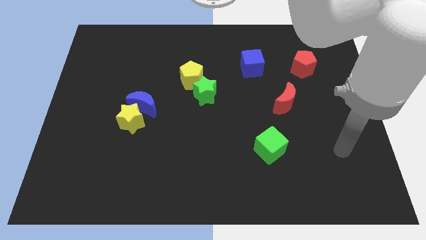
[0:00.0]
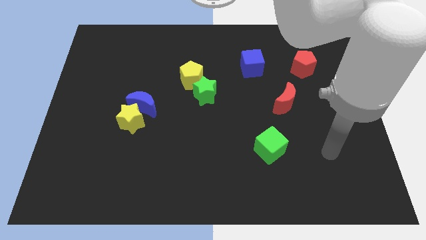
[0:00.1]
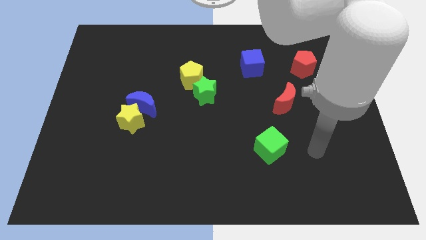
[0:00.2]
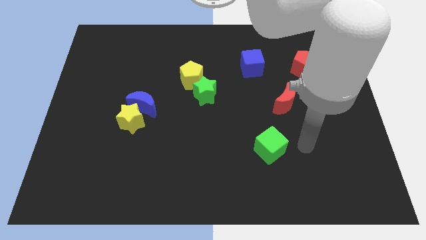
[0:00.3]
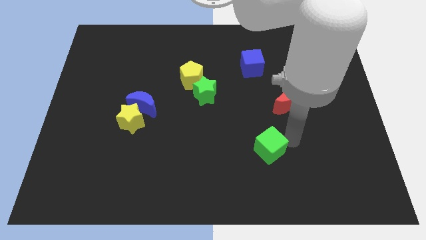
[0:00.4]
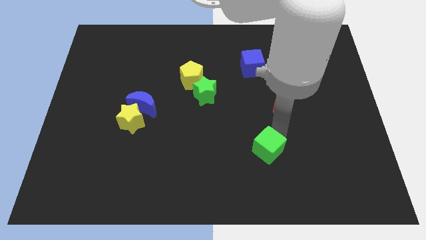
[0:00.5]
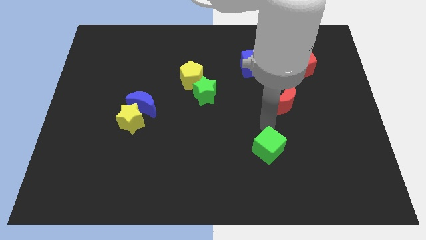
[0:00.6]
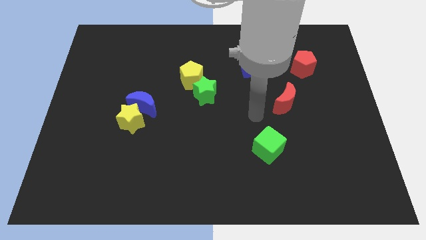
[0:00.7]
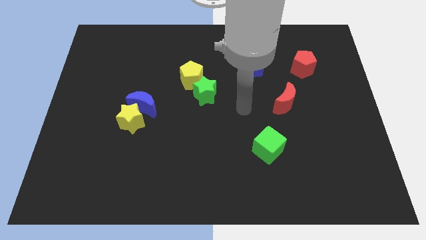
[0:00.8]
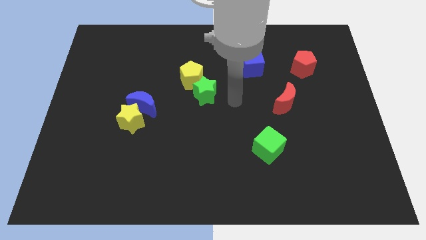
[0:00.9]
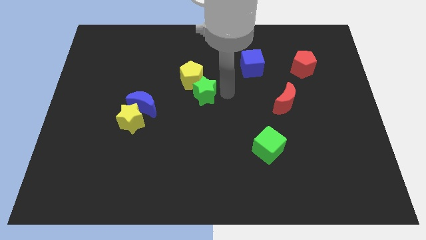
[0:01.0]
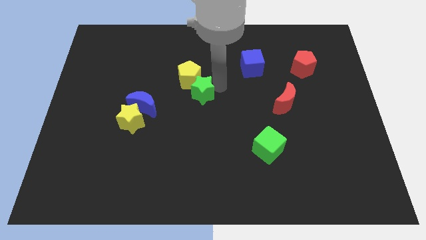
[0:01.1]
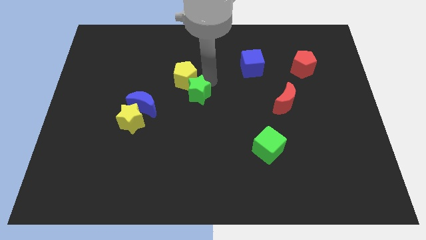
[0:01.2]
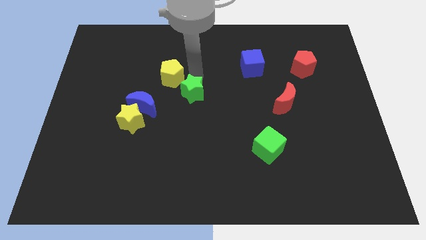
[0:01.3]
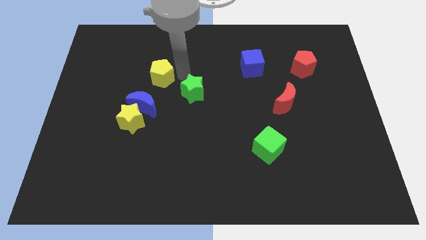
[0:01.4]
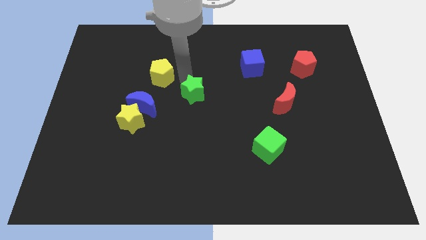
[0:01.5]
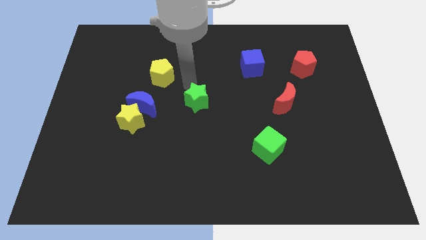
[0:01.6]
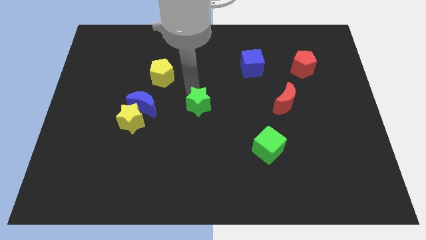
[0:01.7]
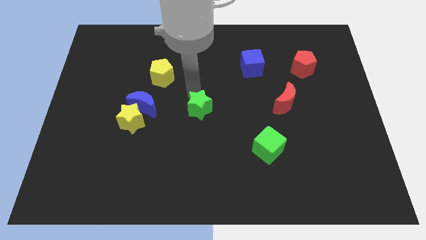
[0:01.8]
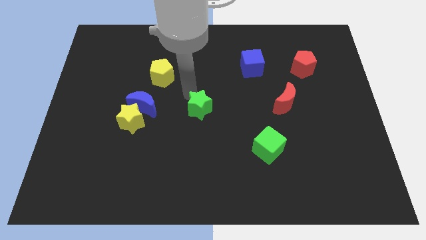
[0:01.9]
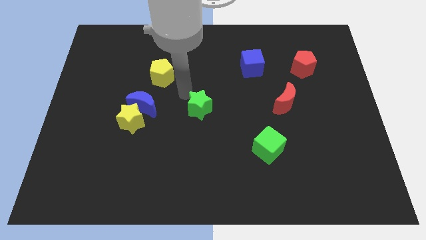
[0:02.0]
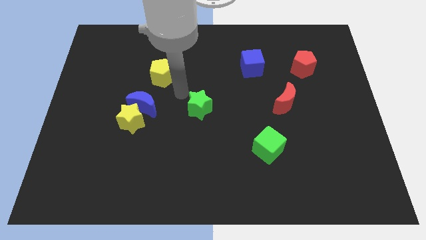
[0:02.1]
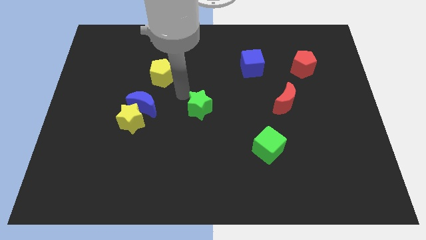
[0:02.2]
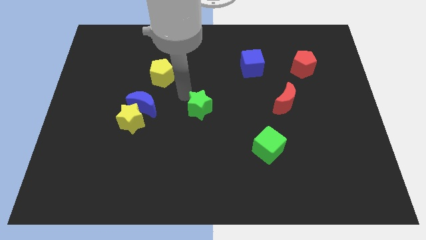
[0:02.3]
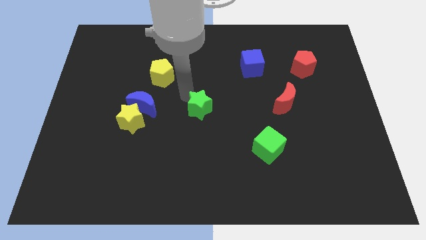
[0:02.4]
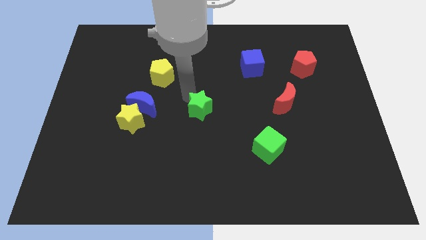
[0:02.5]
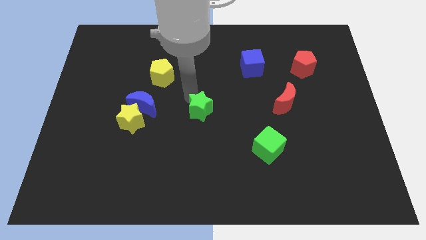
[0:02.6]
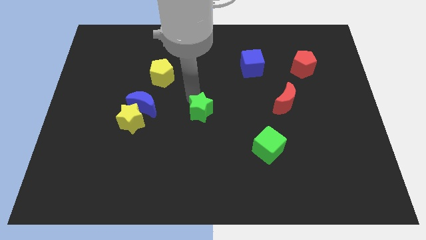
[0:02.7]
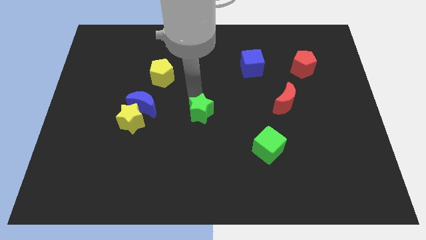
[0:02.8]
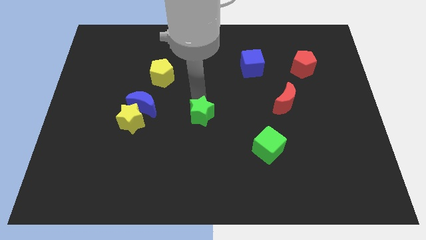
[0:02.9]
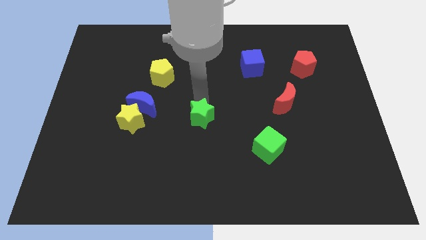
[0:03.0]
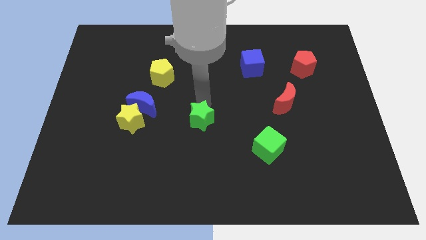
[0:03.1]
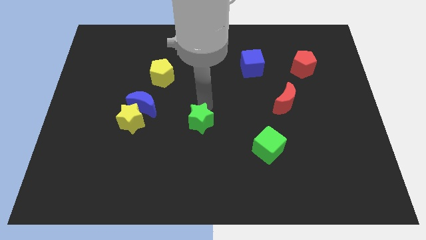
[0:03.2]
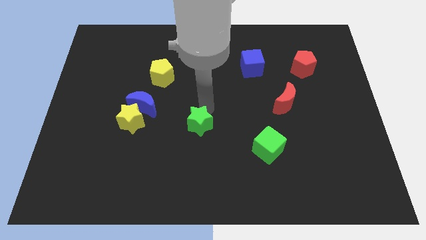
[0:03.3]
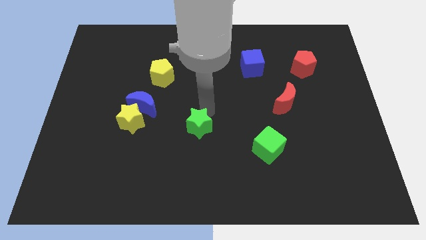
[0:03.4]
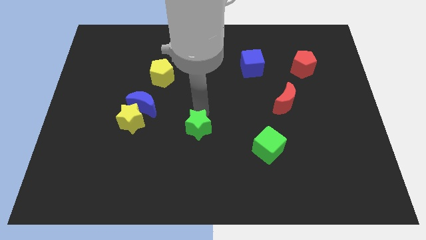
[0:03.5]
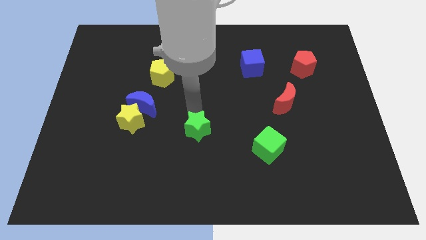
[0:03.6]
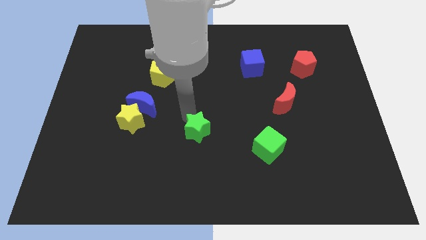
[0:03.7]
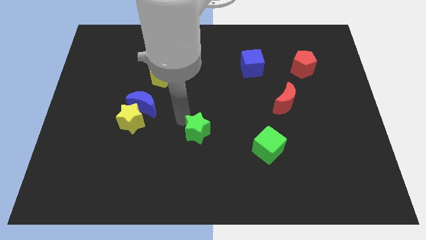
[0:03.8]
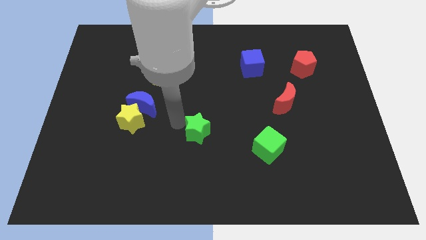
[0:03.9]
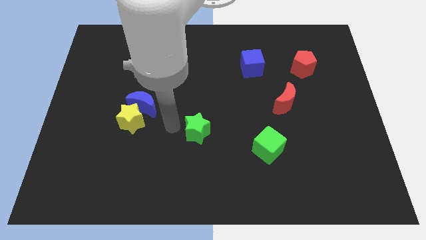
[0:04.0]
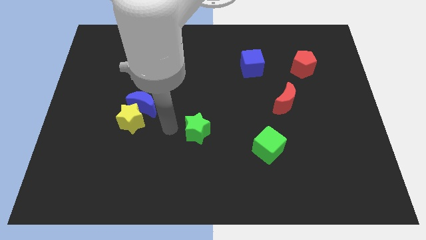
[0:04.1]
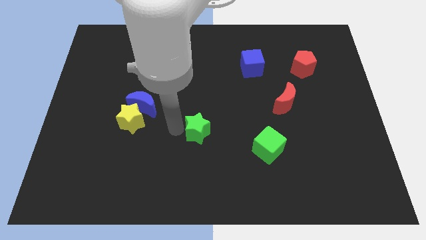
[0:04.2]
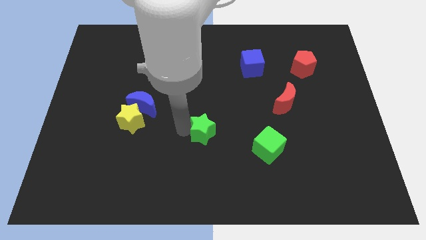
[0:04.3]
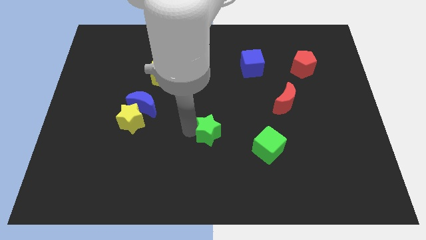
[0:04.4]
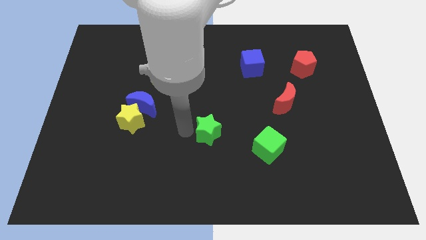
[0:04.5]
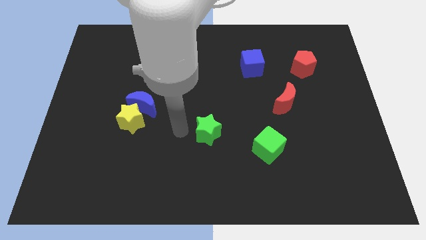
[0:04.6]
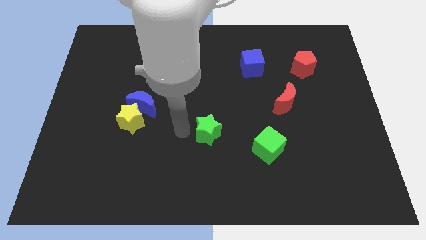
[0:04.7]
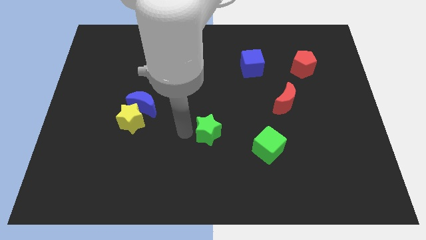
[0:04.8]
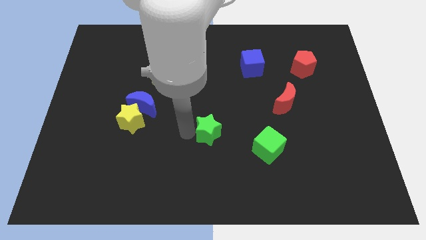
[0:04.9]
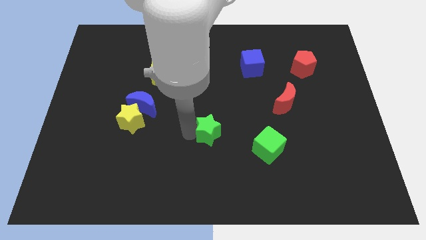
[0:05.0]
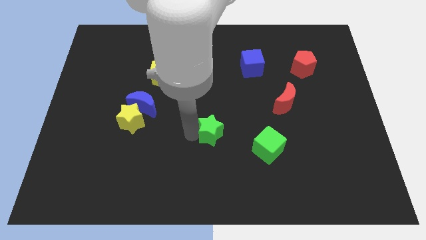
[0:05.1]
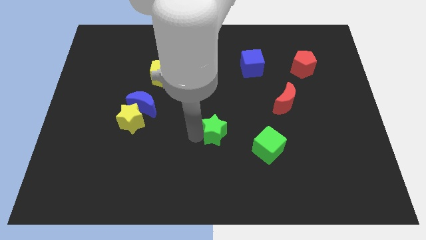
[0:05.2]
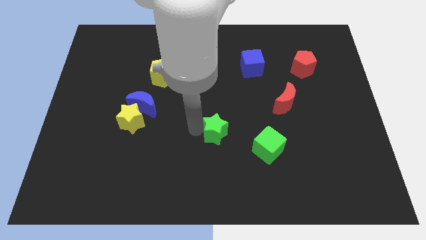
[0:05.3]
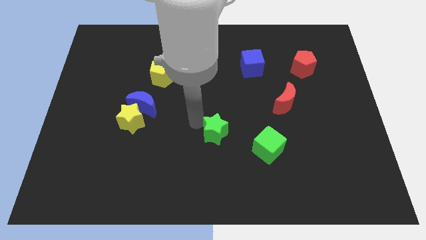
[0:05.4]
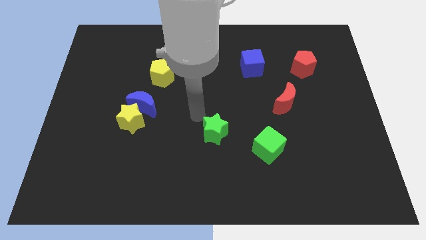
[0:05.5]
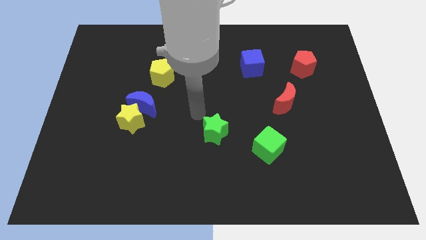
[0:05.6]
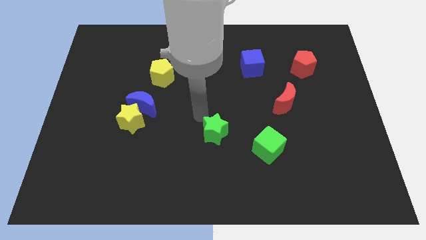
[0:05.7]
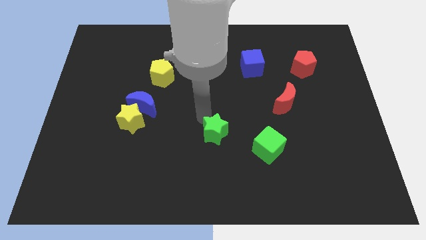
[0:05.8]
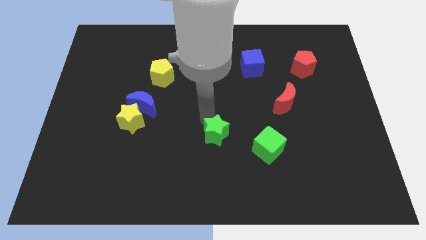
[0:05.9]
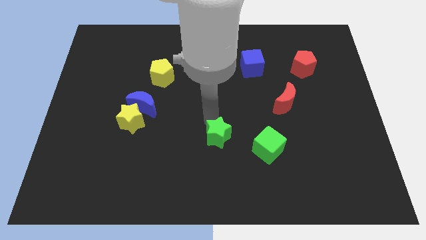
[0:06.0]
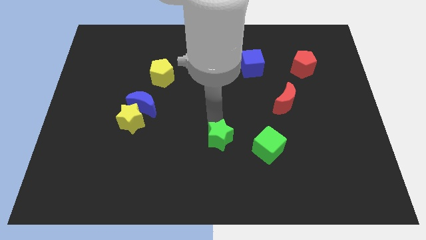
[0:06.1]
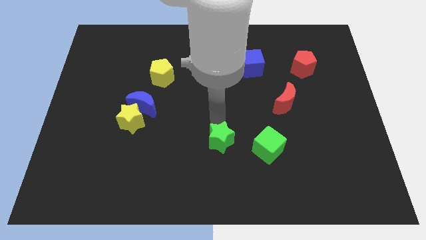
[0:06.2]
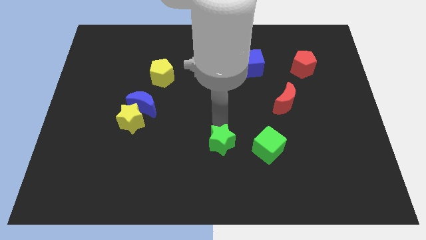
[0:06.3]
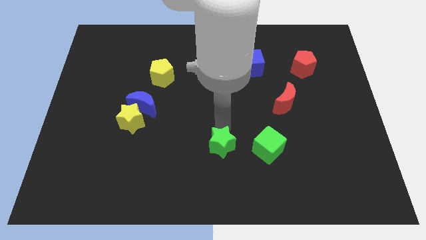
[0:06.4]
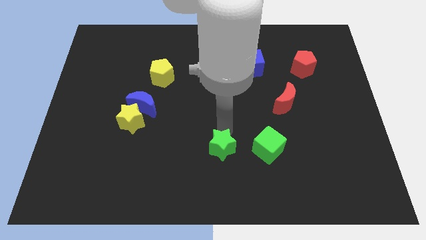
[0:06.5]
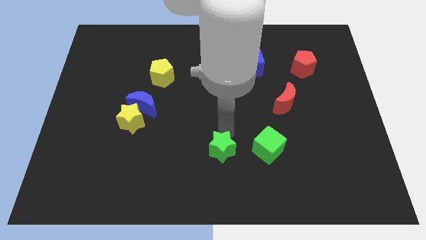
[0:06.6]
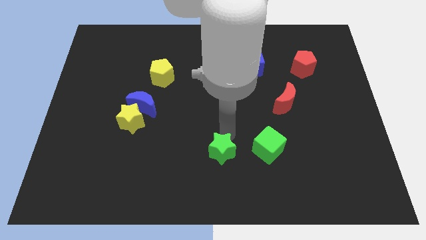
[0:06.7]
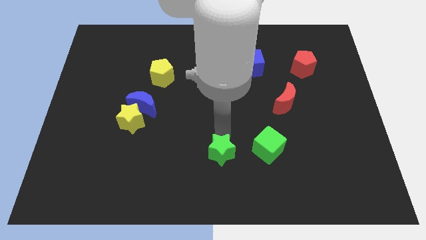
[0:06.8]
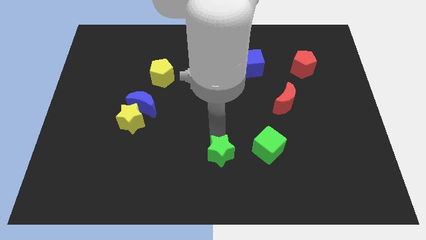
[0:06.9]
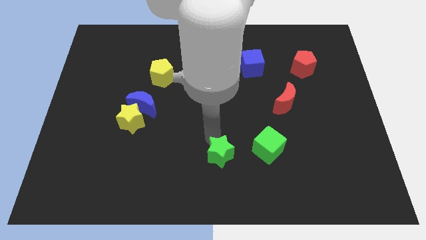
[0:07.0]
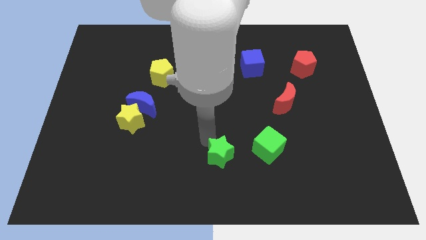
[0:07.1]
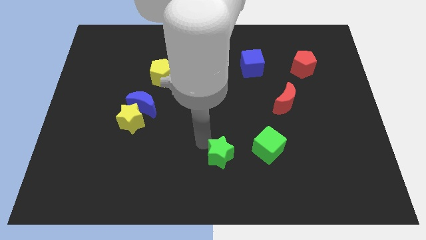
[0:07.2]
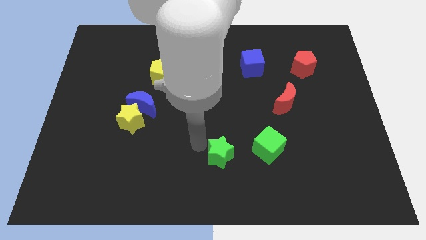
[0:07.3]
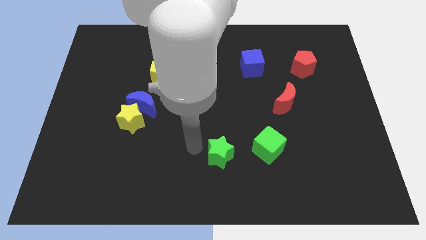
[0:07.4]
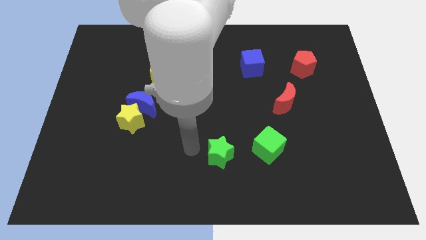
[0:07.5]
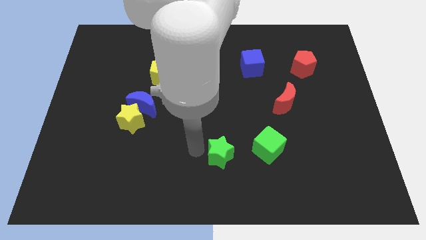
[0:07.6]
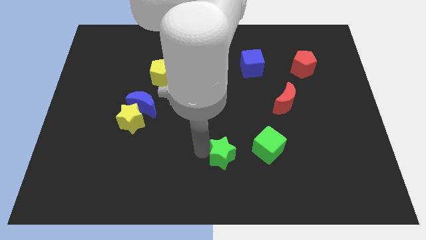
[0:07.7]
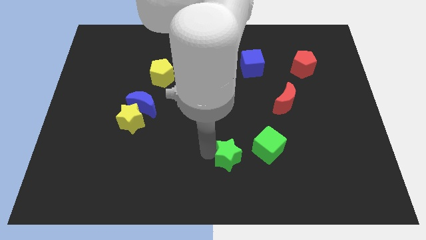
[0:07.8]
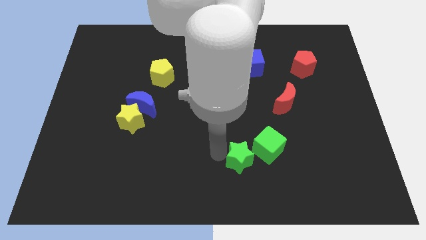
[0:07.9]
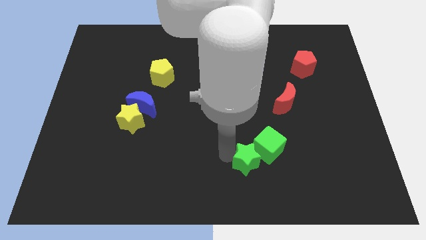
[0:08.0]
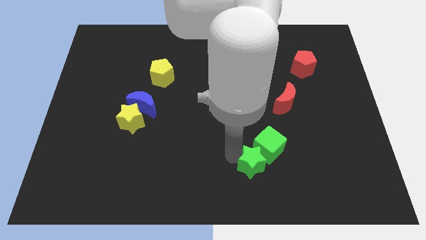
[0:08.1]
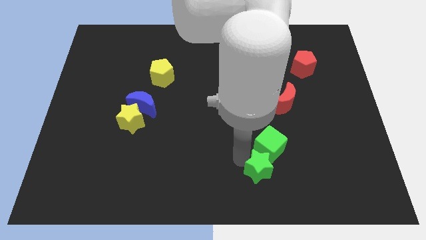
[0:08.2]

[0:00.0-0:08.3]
push the green star downwards and right
